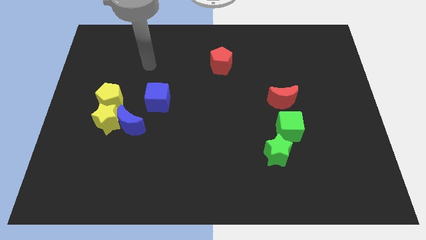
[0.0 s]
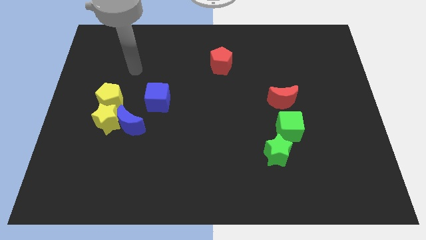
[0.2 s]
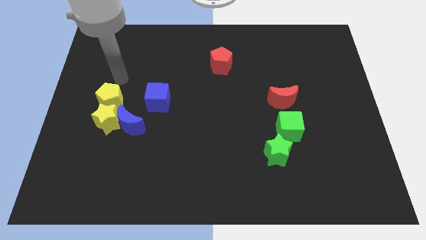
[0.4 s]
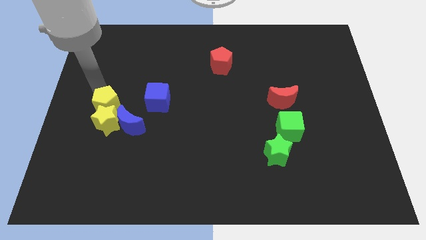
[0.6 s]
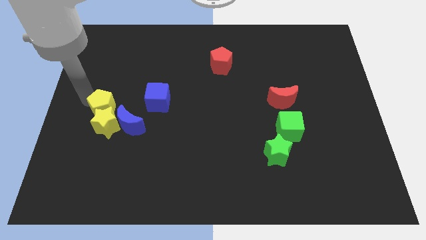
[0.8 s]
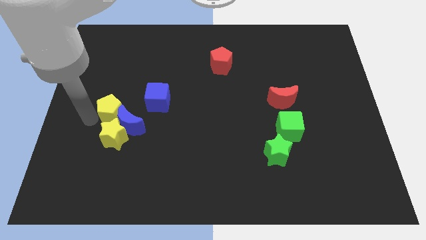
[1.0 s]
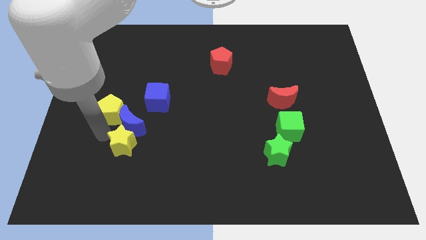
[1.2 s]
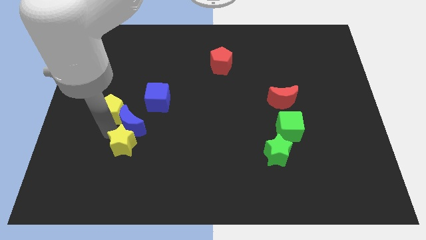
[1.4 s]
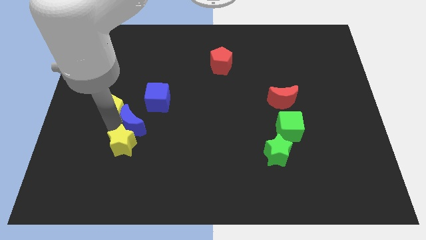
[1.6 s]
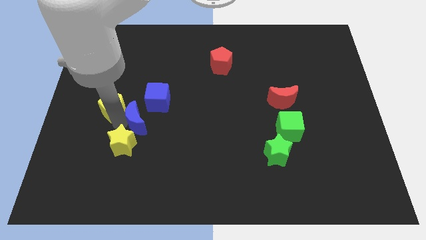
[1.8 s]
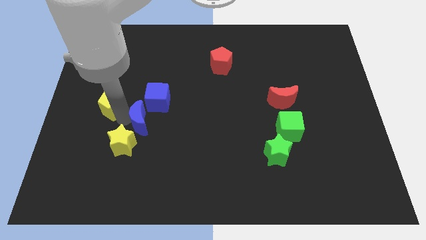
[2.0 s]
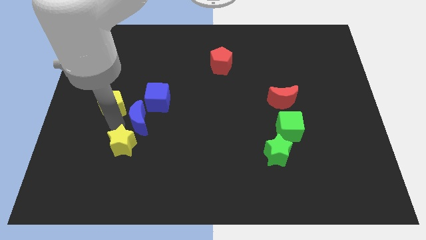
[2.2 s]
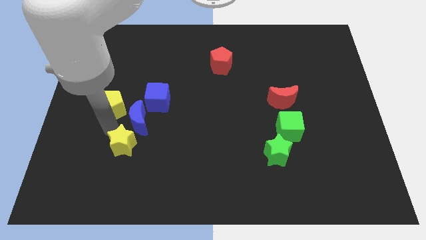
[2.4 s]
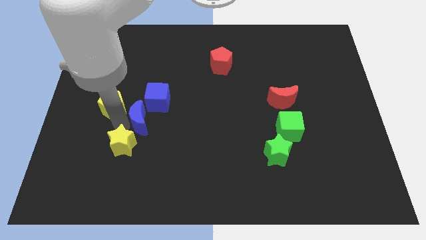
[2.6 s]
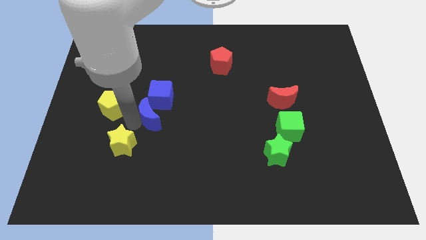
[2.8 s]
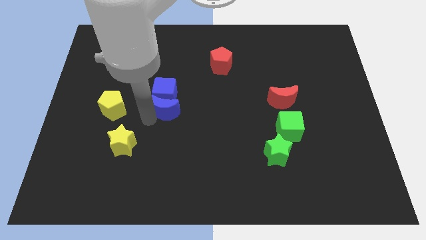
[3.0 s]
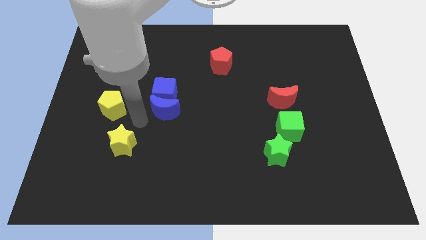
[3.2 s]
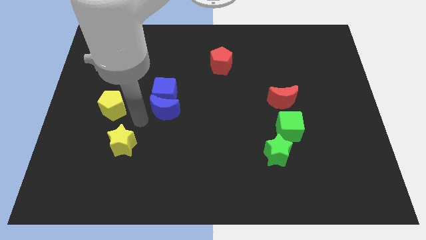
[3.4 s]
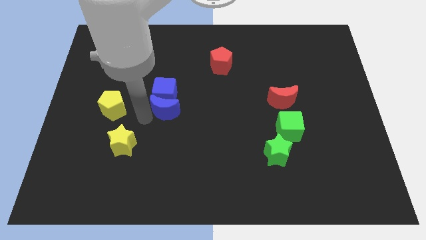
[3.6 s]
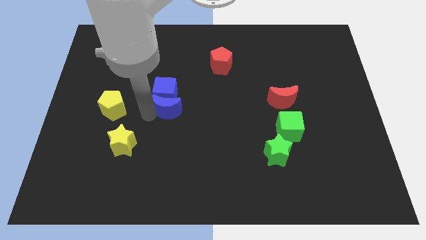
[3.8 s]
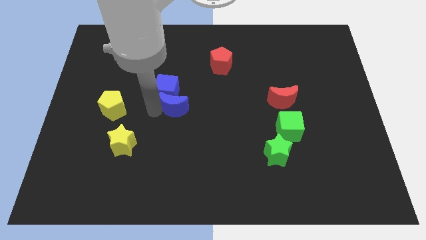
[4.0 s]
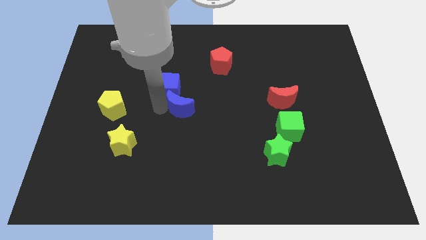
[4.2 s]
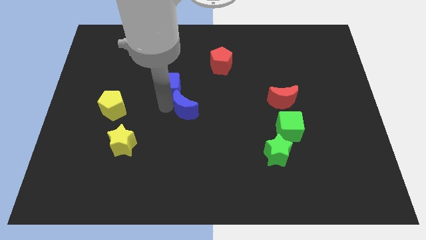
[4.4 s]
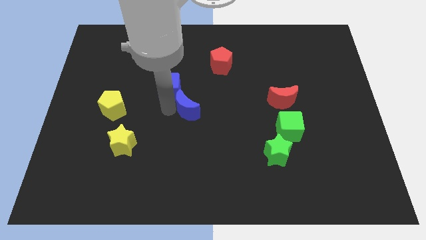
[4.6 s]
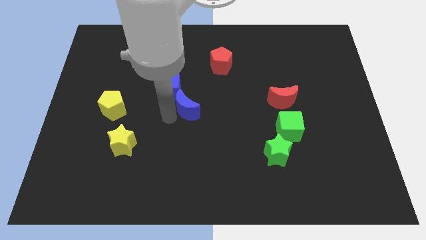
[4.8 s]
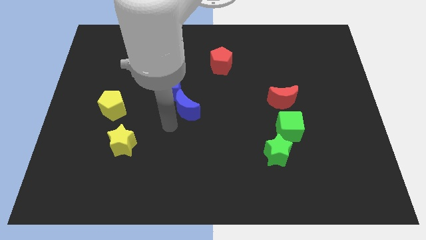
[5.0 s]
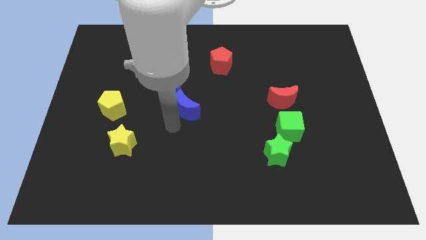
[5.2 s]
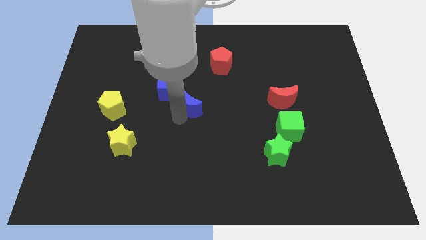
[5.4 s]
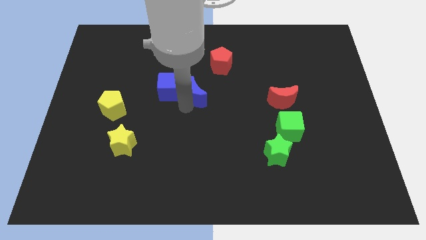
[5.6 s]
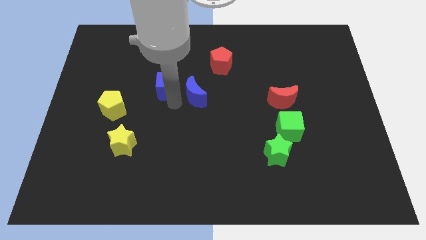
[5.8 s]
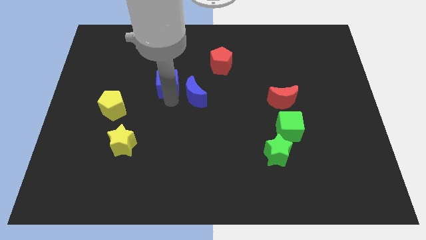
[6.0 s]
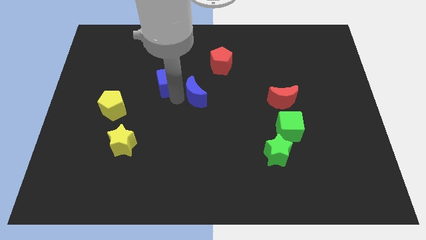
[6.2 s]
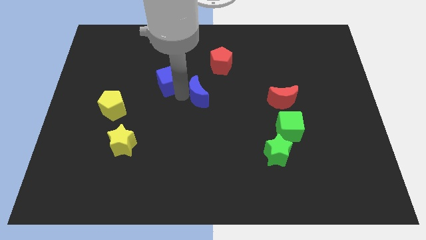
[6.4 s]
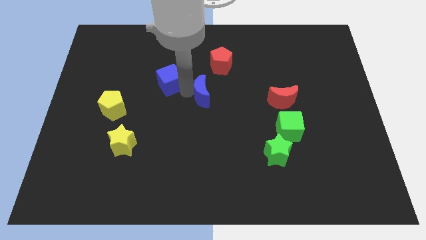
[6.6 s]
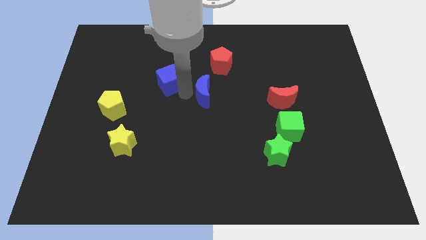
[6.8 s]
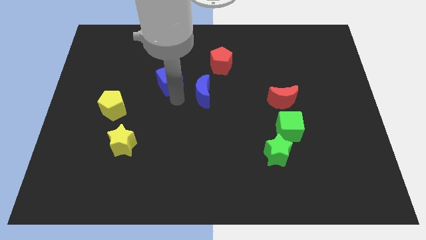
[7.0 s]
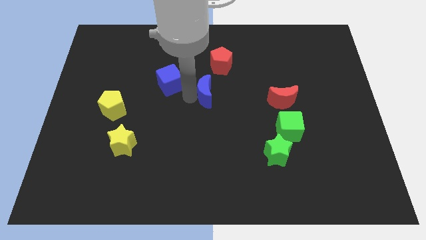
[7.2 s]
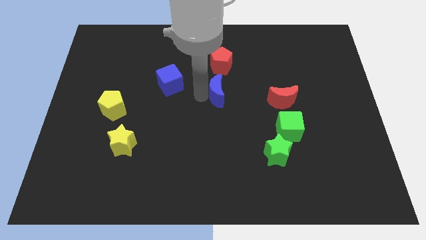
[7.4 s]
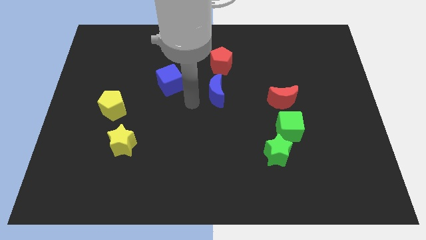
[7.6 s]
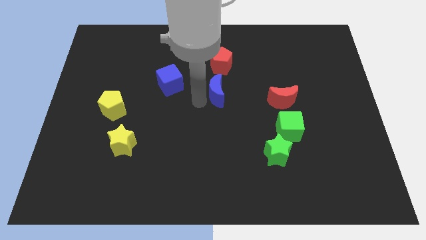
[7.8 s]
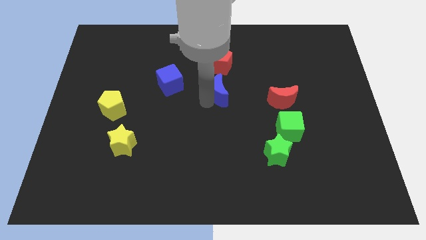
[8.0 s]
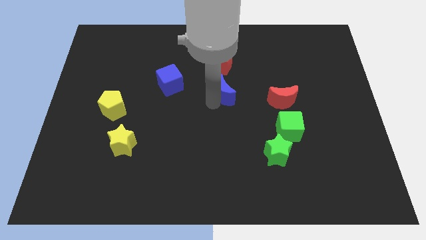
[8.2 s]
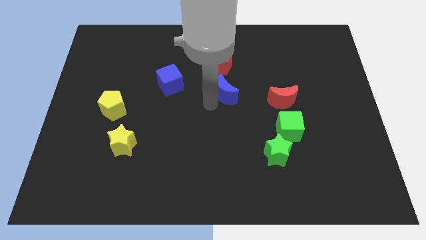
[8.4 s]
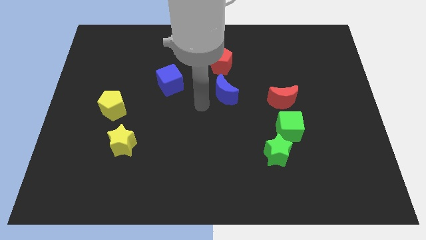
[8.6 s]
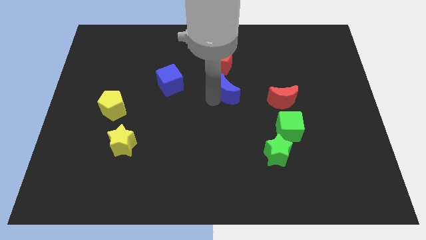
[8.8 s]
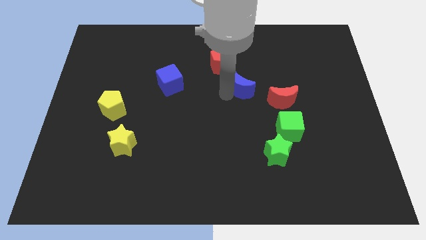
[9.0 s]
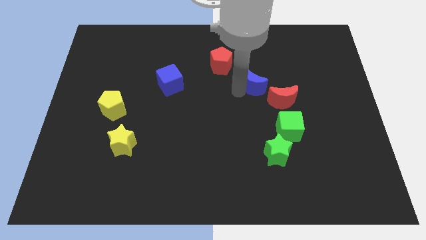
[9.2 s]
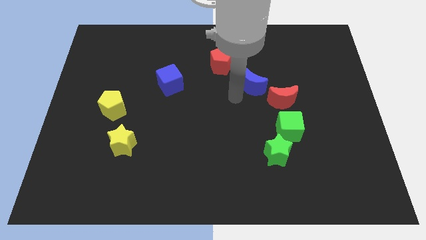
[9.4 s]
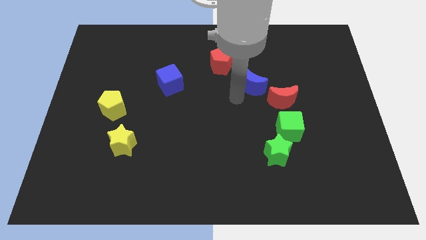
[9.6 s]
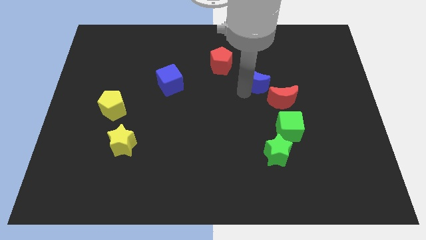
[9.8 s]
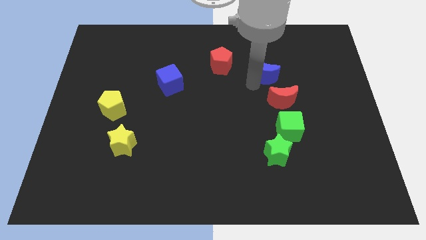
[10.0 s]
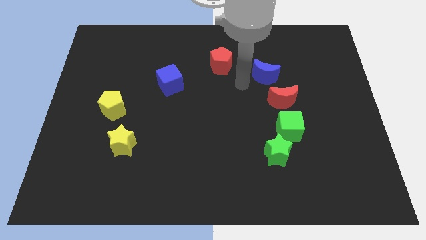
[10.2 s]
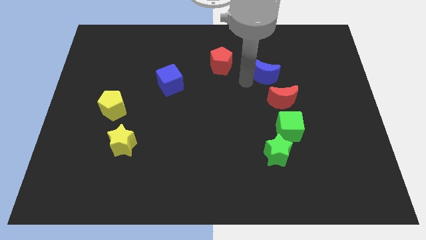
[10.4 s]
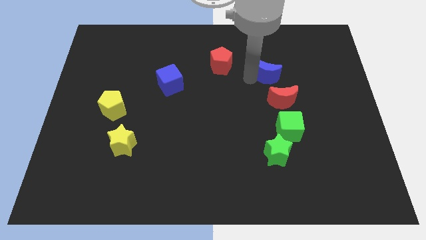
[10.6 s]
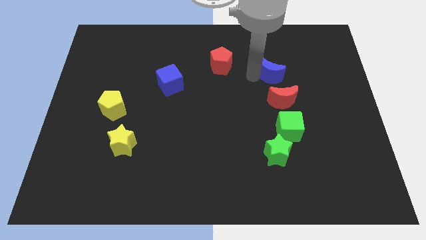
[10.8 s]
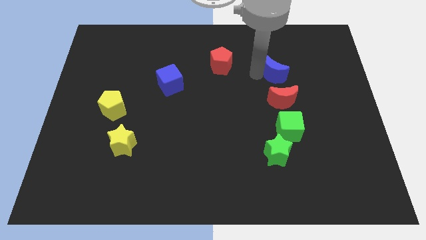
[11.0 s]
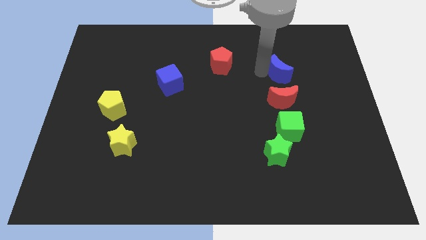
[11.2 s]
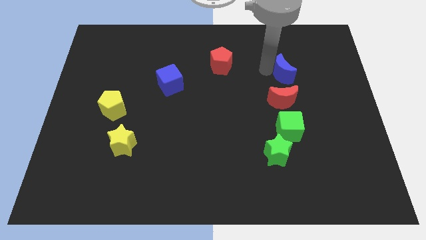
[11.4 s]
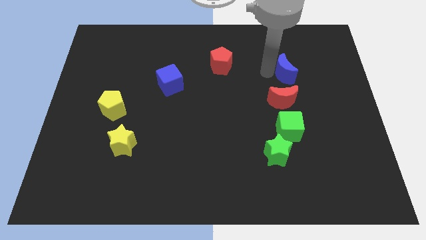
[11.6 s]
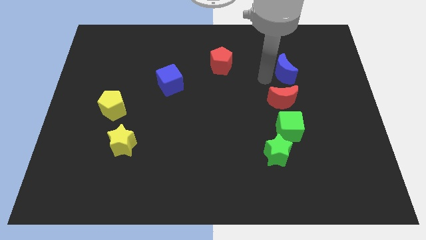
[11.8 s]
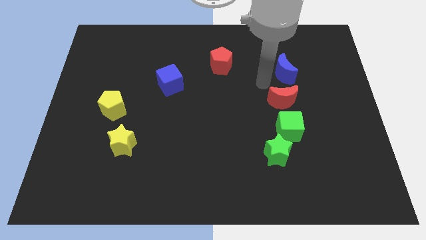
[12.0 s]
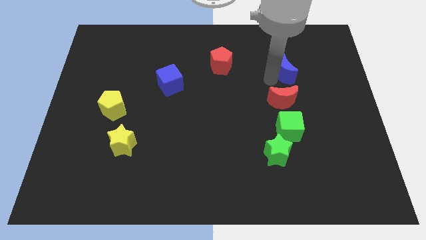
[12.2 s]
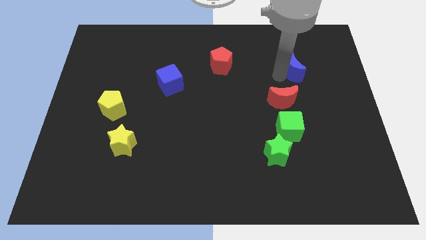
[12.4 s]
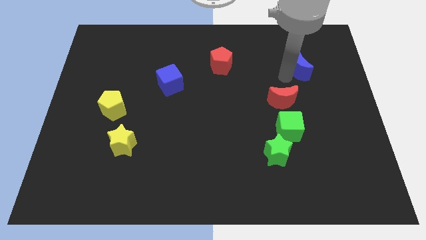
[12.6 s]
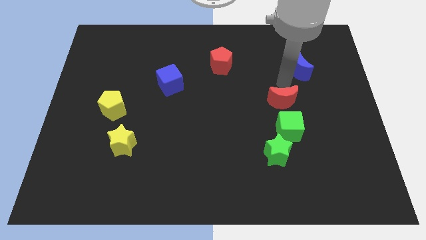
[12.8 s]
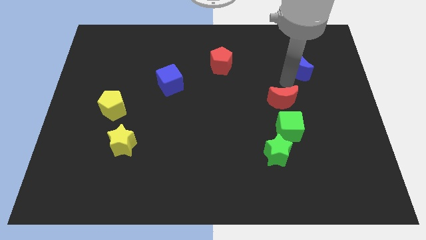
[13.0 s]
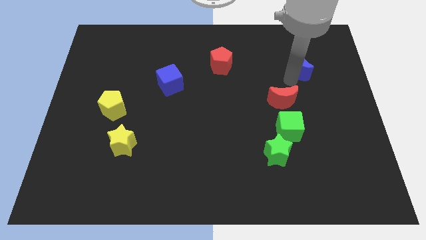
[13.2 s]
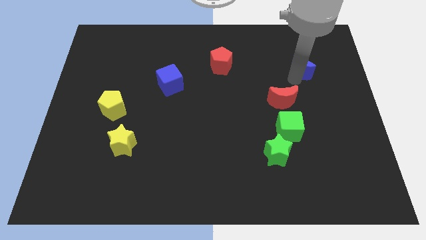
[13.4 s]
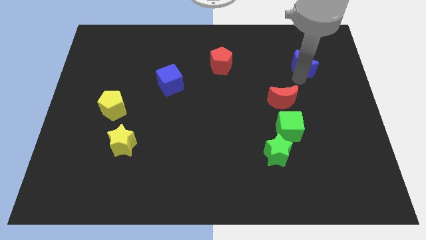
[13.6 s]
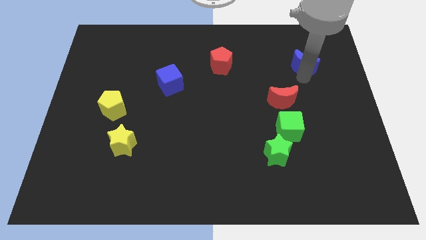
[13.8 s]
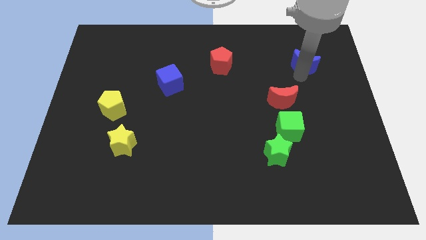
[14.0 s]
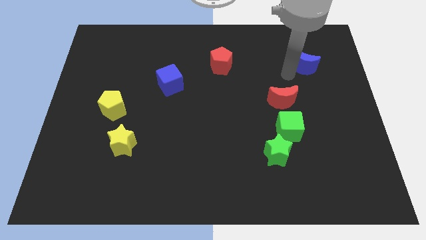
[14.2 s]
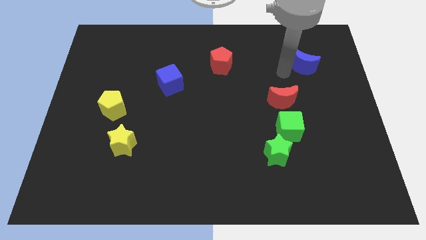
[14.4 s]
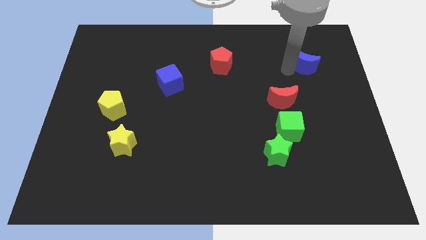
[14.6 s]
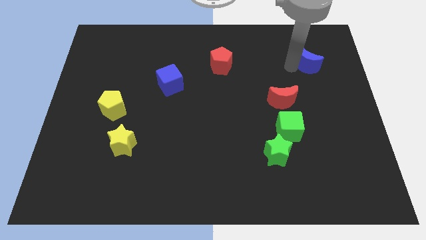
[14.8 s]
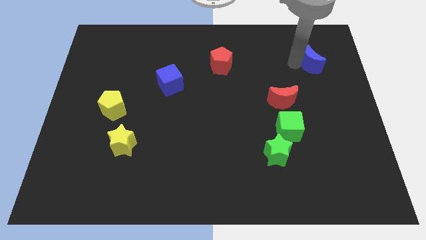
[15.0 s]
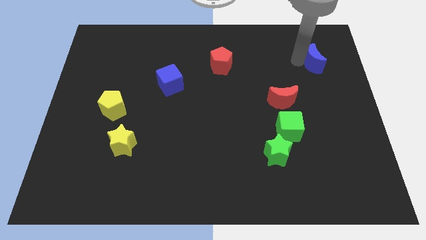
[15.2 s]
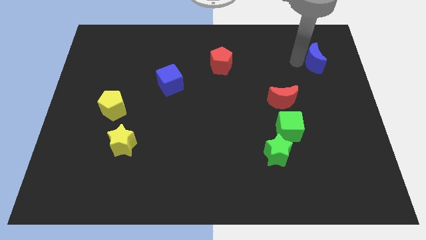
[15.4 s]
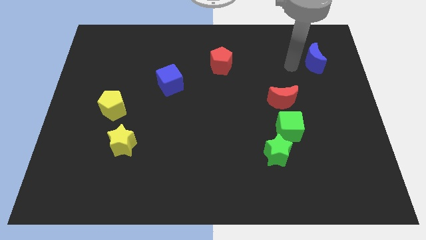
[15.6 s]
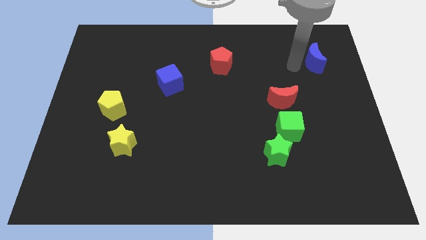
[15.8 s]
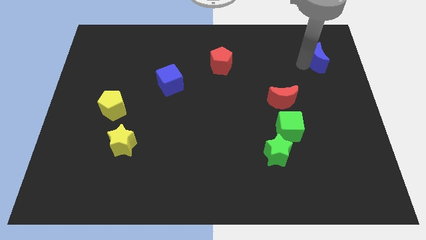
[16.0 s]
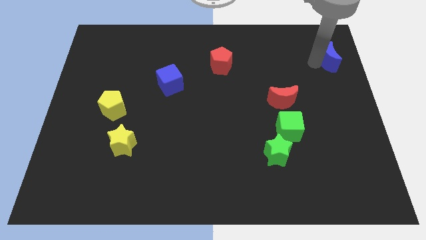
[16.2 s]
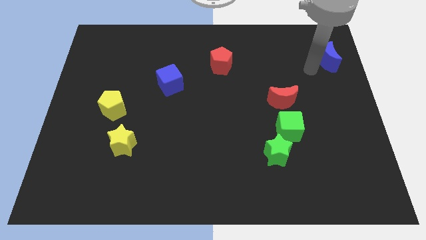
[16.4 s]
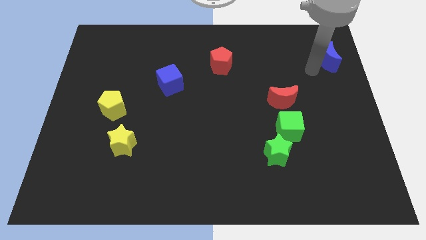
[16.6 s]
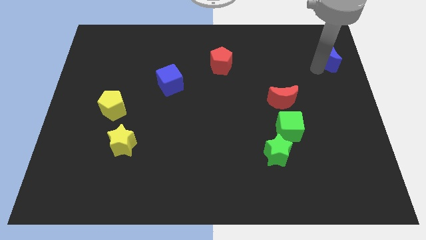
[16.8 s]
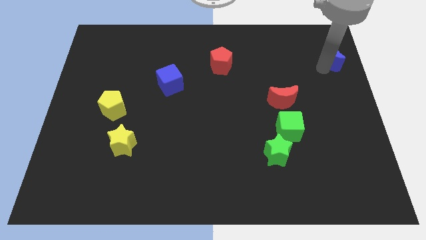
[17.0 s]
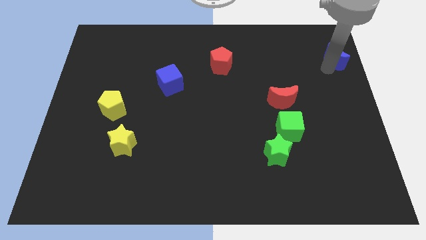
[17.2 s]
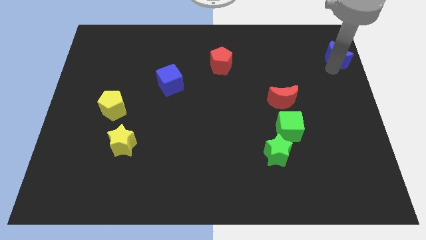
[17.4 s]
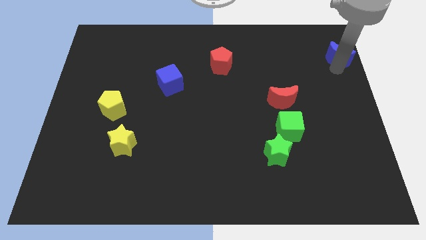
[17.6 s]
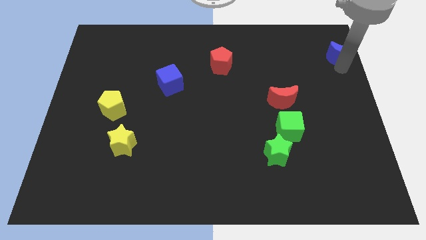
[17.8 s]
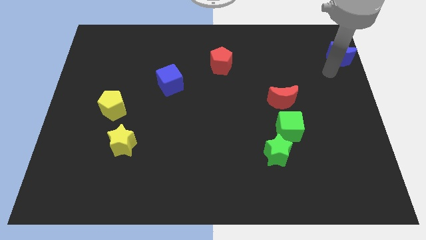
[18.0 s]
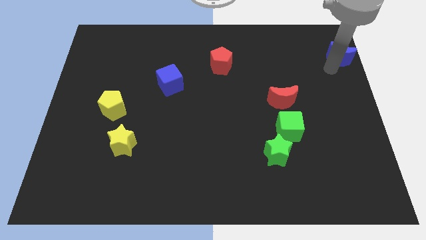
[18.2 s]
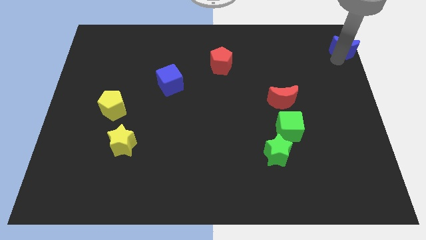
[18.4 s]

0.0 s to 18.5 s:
move the blue moon to the upper right corner
